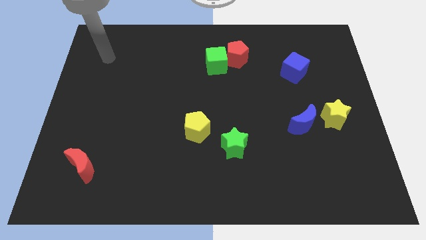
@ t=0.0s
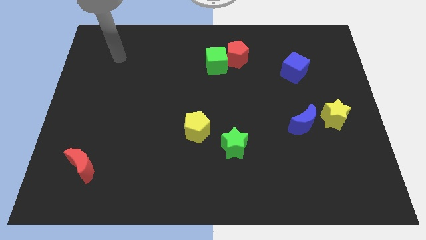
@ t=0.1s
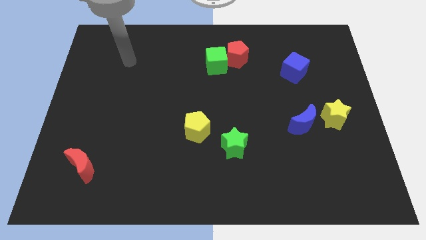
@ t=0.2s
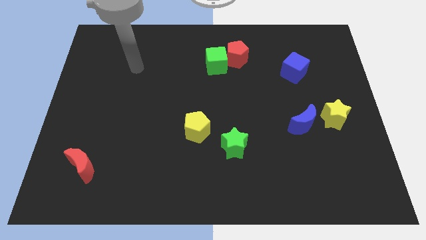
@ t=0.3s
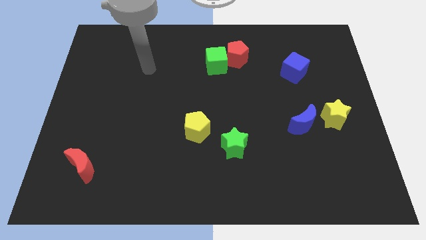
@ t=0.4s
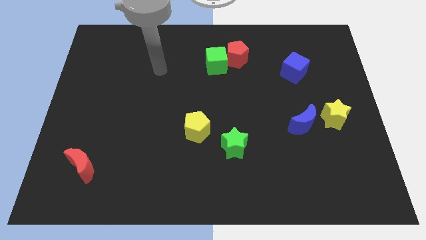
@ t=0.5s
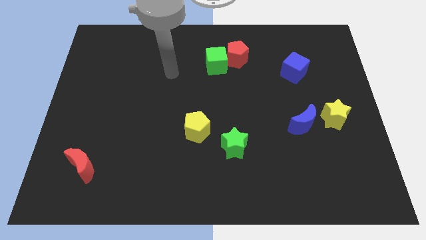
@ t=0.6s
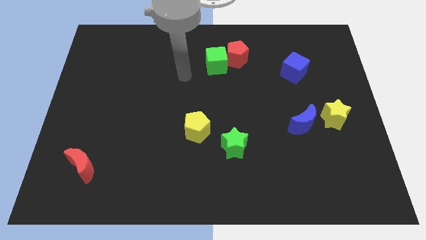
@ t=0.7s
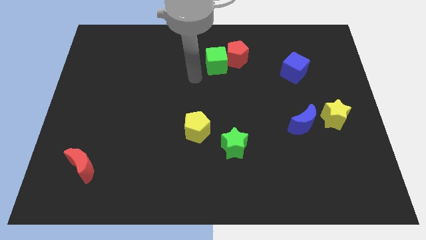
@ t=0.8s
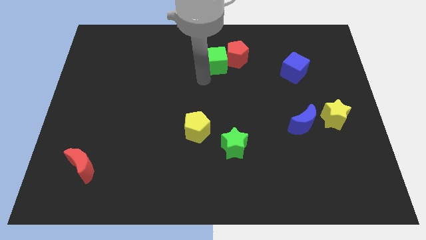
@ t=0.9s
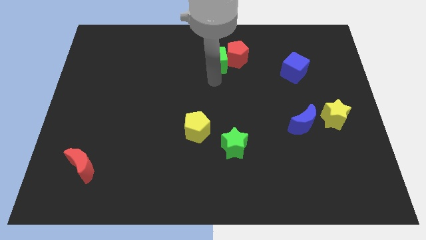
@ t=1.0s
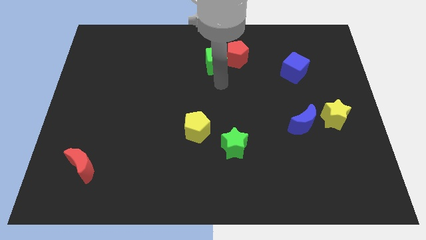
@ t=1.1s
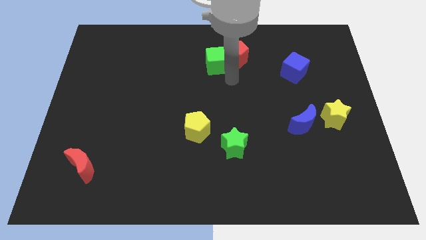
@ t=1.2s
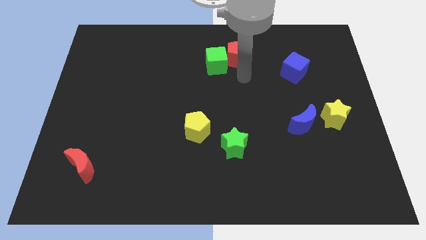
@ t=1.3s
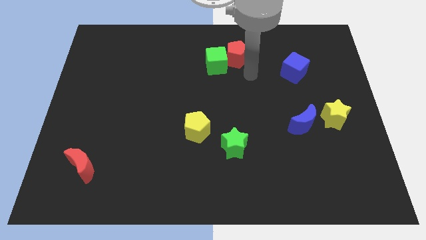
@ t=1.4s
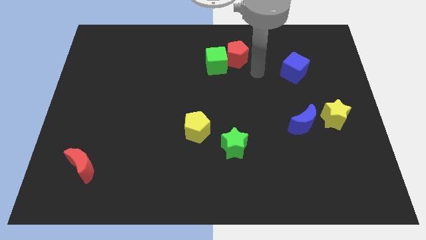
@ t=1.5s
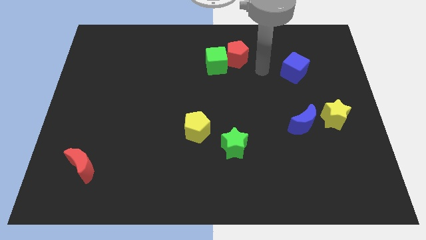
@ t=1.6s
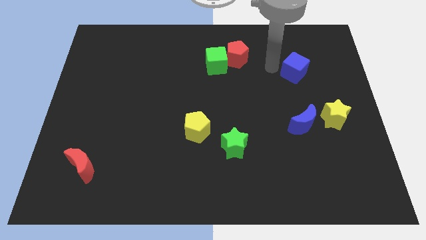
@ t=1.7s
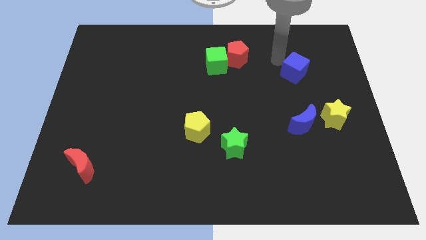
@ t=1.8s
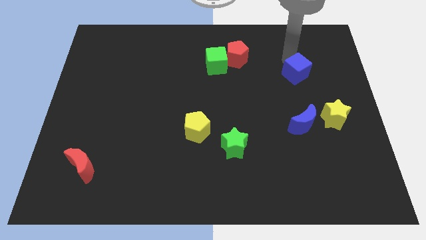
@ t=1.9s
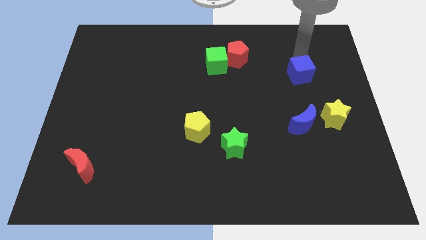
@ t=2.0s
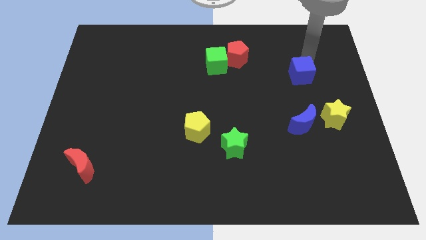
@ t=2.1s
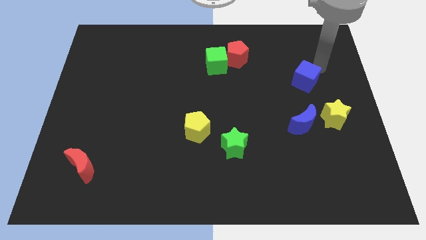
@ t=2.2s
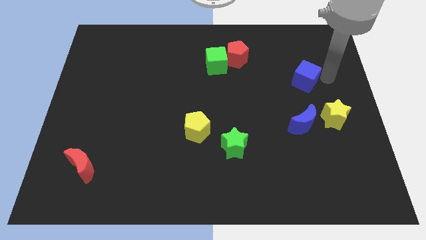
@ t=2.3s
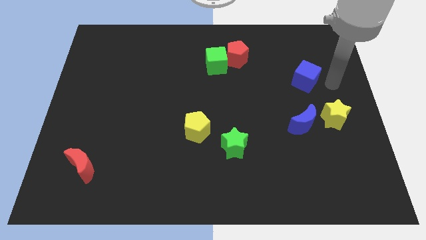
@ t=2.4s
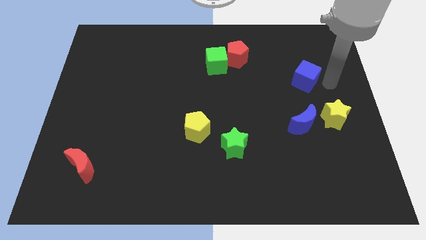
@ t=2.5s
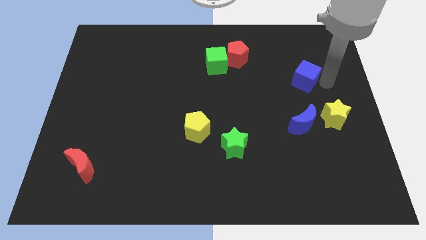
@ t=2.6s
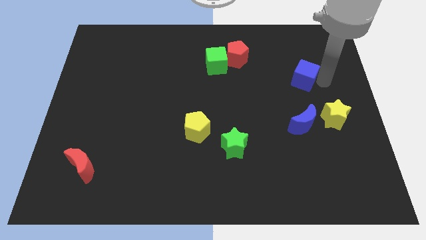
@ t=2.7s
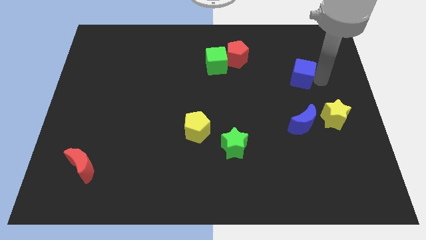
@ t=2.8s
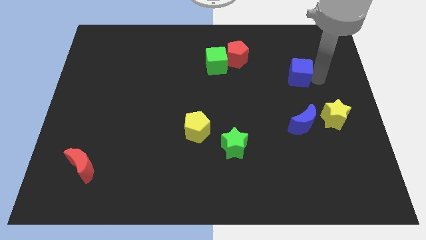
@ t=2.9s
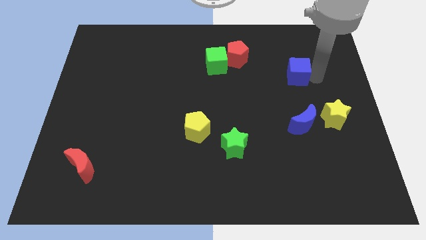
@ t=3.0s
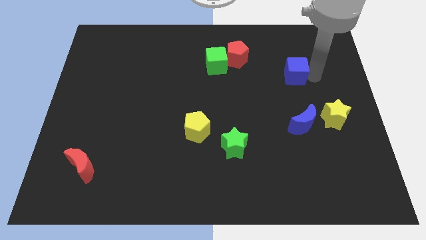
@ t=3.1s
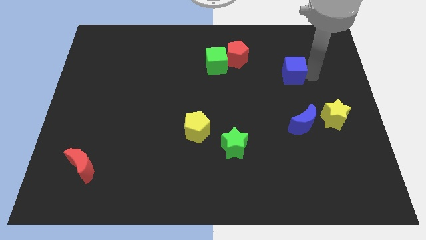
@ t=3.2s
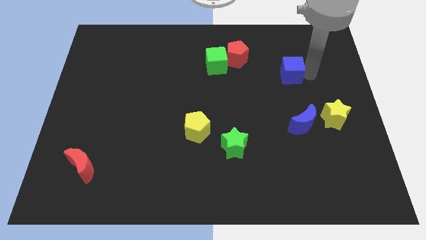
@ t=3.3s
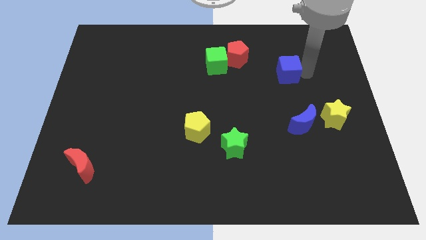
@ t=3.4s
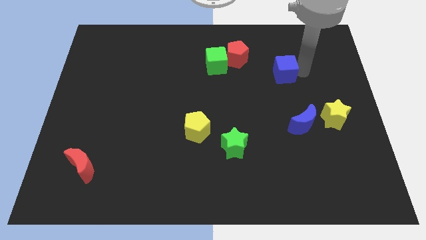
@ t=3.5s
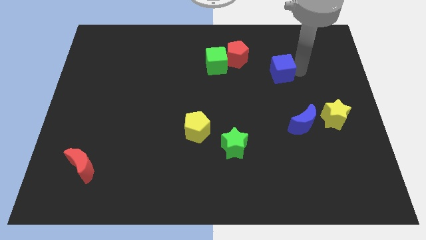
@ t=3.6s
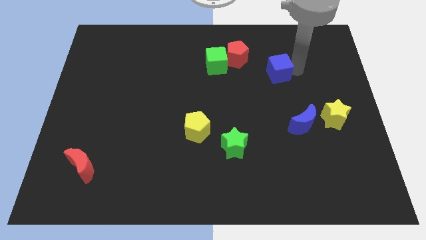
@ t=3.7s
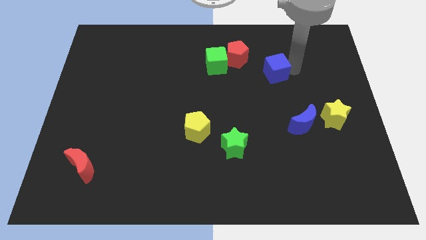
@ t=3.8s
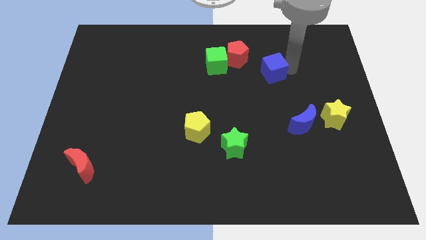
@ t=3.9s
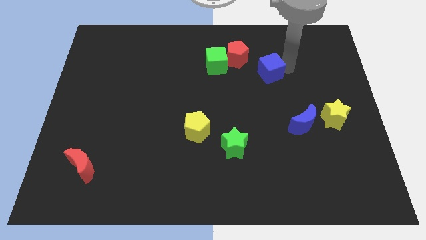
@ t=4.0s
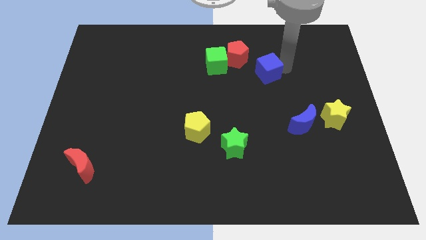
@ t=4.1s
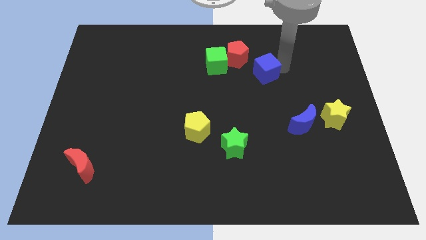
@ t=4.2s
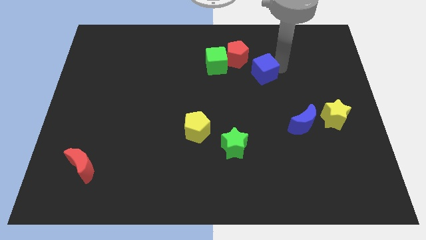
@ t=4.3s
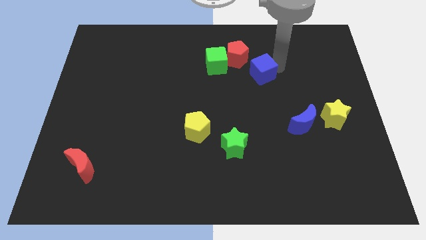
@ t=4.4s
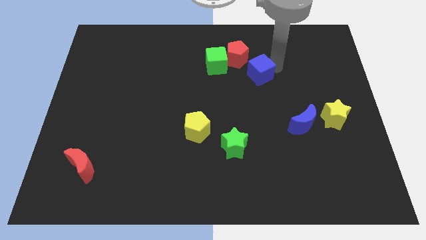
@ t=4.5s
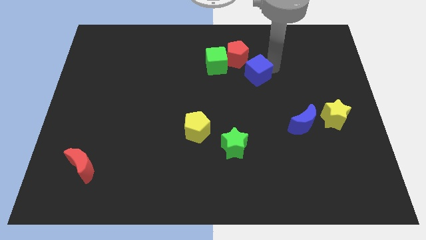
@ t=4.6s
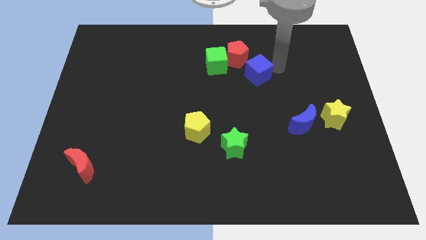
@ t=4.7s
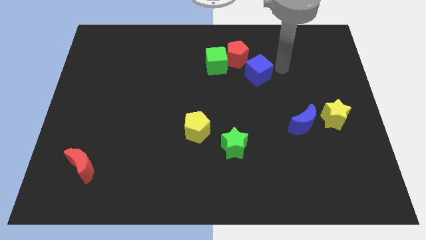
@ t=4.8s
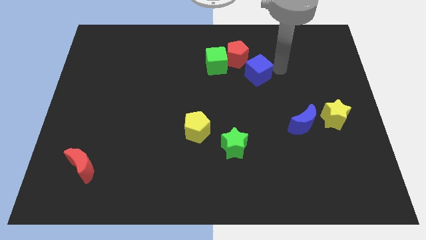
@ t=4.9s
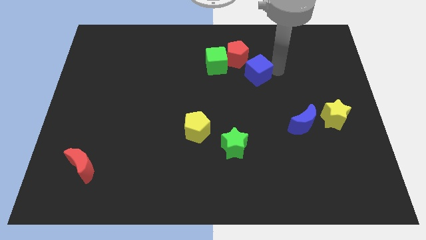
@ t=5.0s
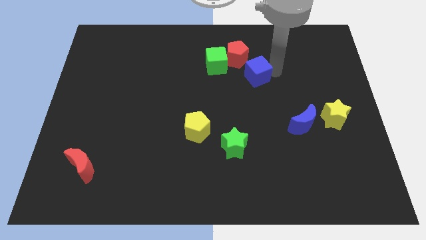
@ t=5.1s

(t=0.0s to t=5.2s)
slide the blue cube to the bottom right side of the green cube

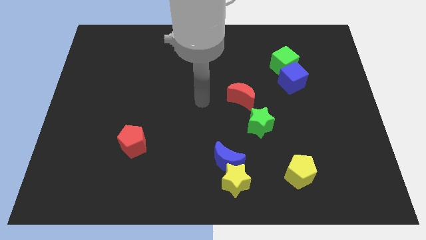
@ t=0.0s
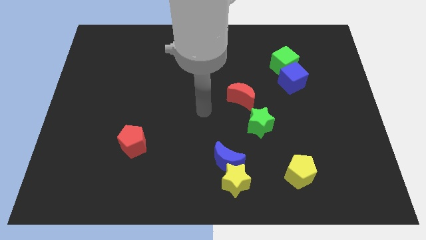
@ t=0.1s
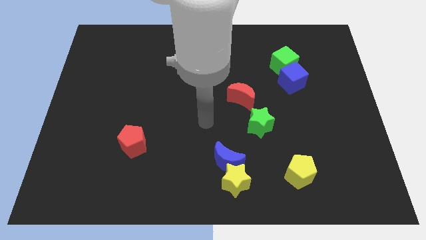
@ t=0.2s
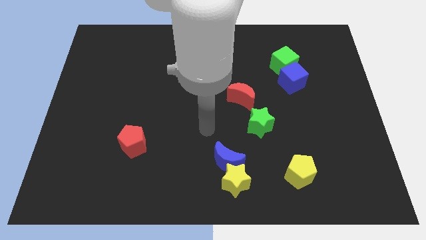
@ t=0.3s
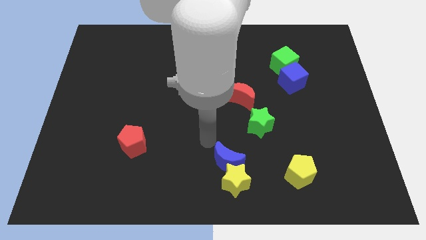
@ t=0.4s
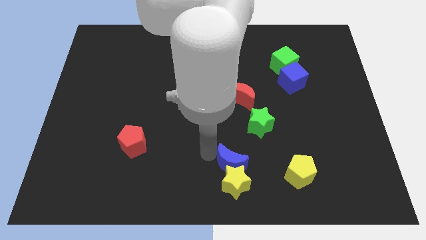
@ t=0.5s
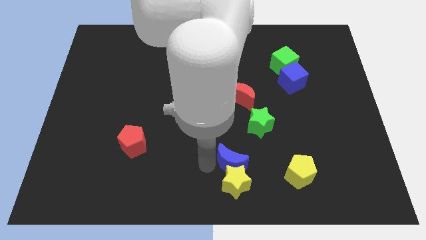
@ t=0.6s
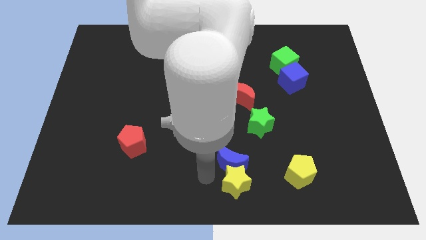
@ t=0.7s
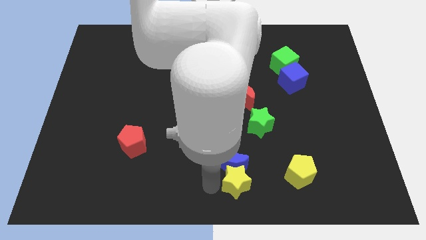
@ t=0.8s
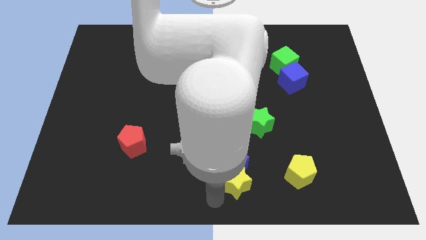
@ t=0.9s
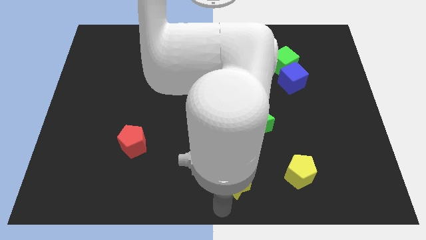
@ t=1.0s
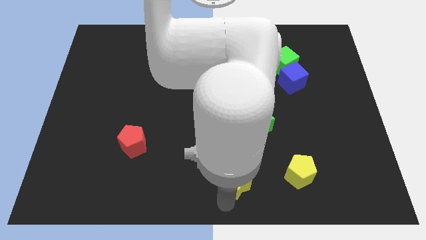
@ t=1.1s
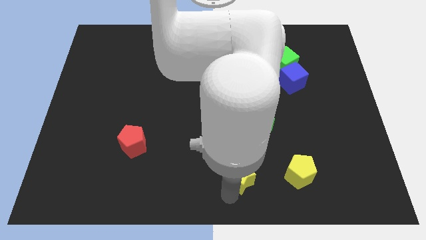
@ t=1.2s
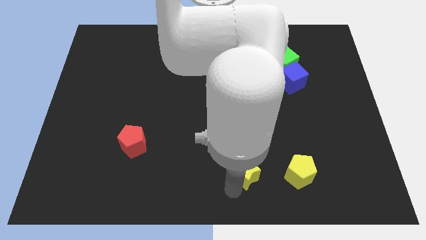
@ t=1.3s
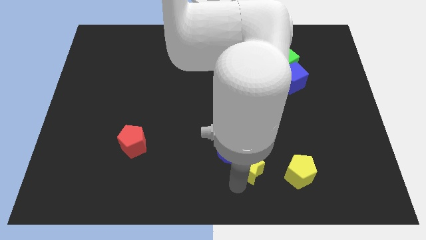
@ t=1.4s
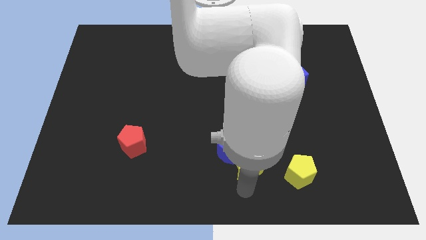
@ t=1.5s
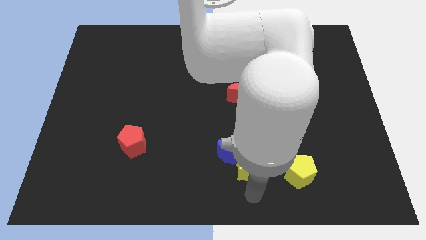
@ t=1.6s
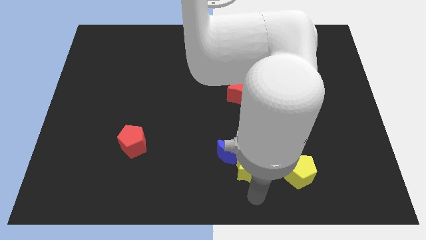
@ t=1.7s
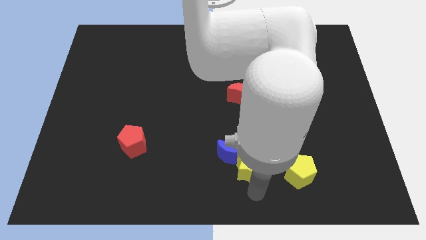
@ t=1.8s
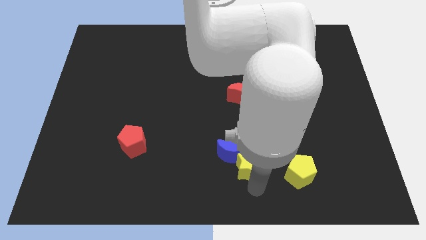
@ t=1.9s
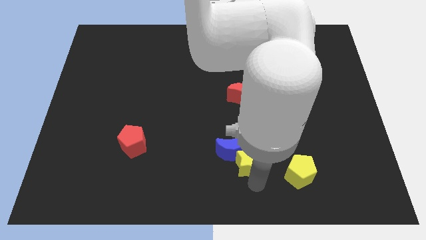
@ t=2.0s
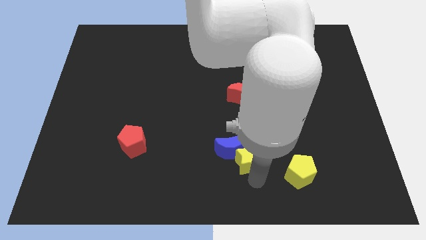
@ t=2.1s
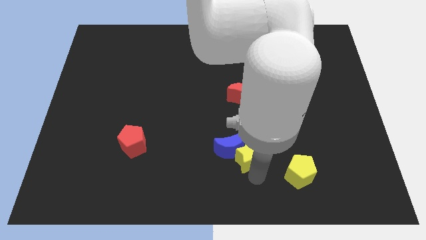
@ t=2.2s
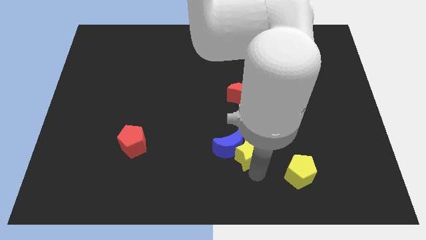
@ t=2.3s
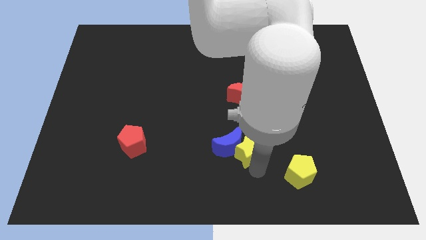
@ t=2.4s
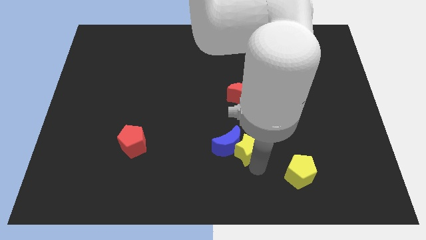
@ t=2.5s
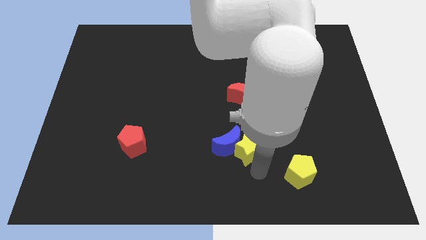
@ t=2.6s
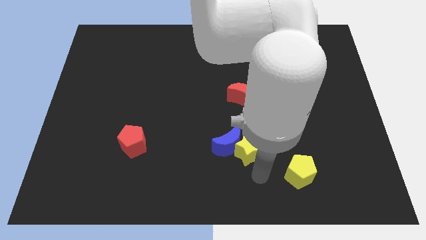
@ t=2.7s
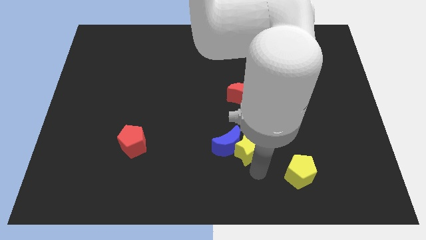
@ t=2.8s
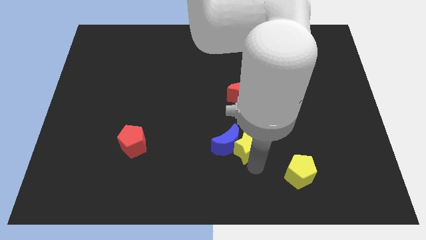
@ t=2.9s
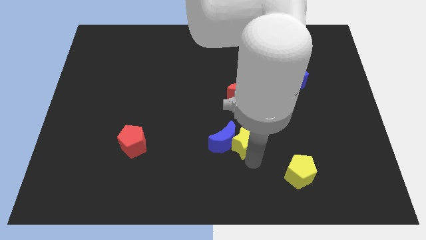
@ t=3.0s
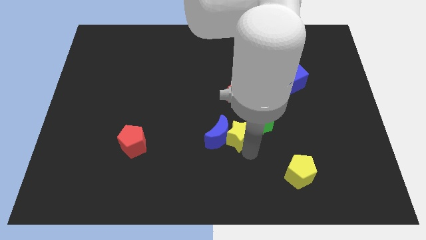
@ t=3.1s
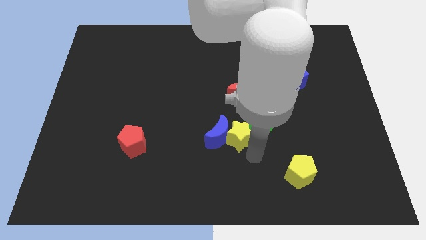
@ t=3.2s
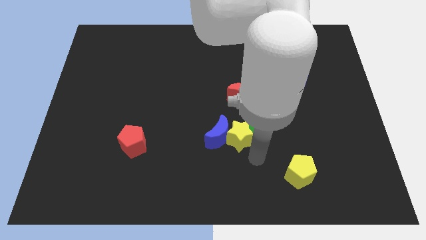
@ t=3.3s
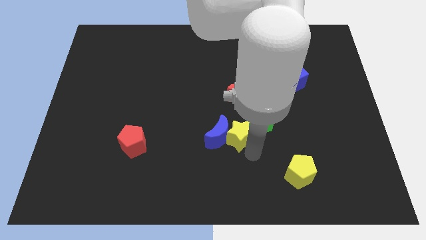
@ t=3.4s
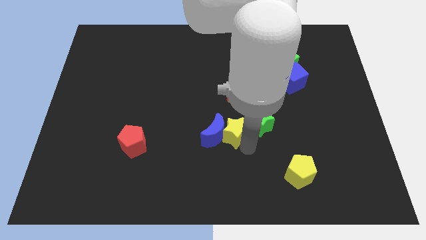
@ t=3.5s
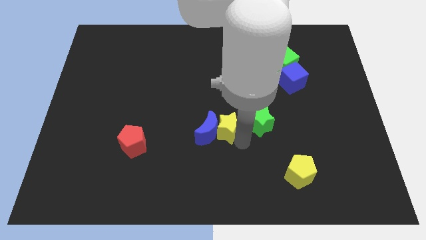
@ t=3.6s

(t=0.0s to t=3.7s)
put the yellow star to the bottom left side of the red moon
